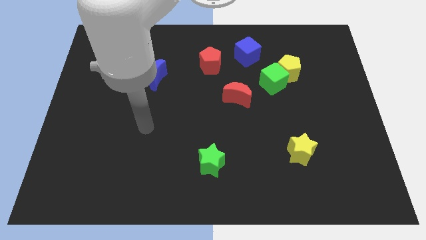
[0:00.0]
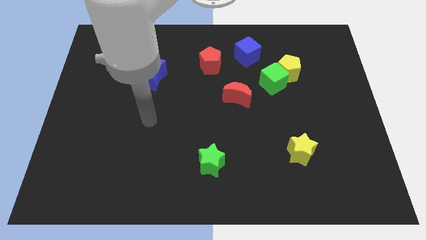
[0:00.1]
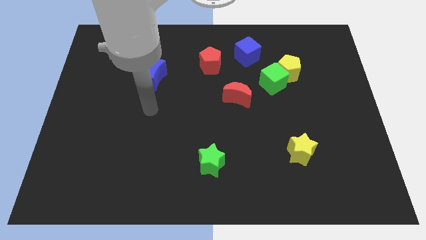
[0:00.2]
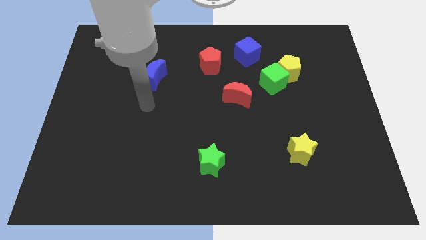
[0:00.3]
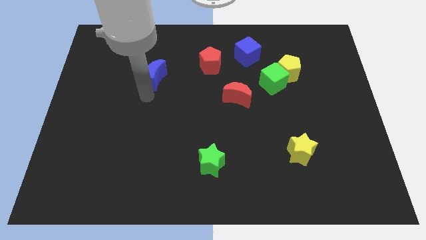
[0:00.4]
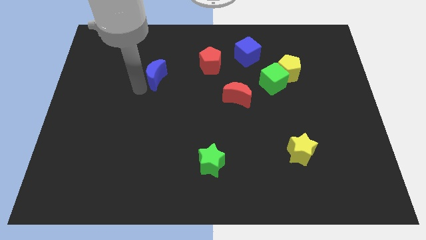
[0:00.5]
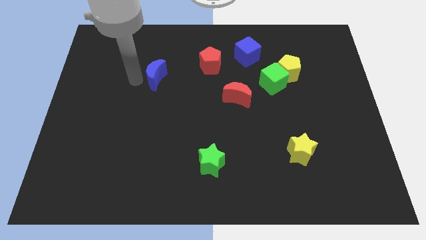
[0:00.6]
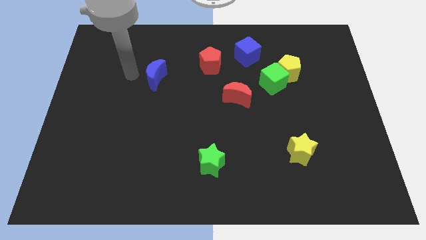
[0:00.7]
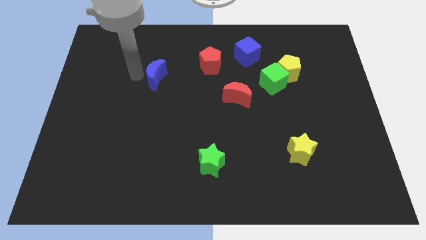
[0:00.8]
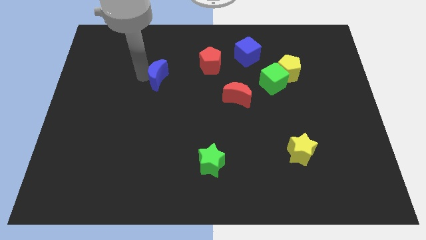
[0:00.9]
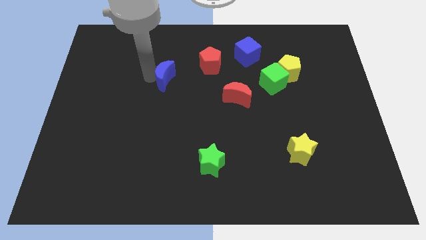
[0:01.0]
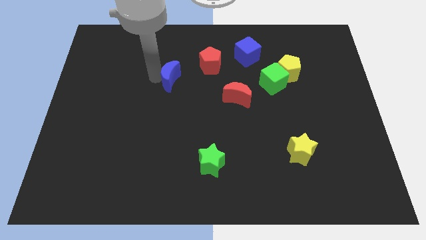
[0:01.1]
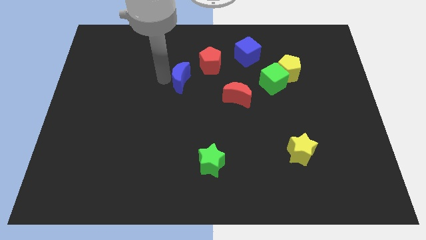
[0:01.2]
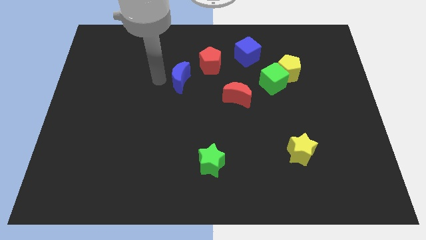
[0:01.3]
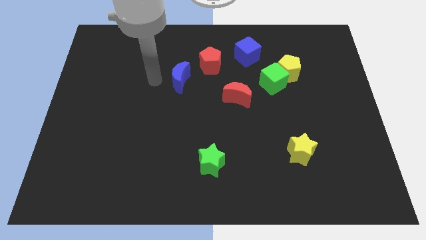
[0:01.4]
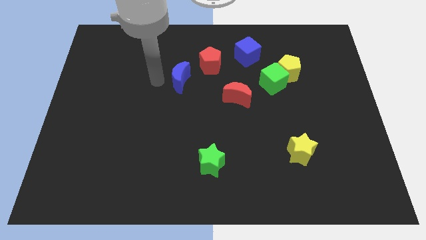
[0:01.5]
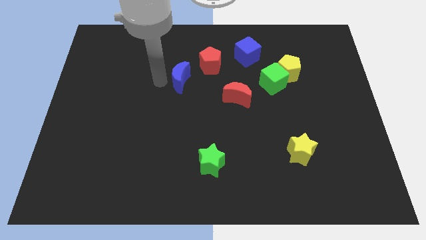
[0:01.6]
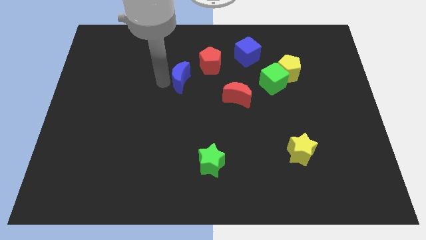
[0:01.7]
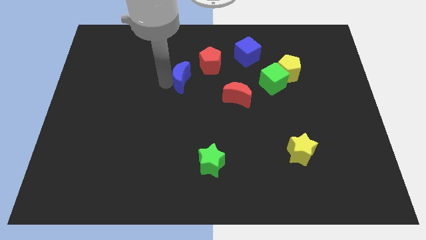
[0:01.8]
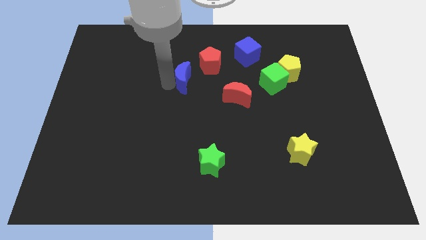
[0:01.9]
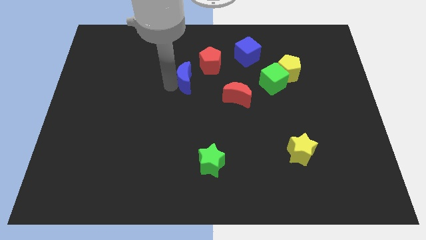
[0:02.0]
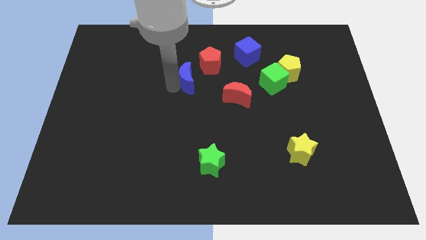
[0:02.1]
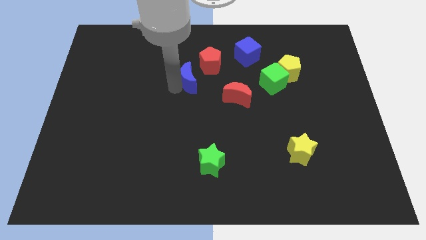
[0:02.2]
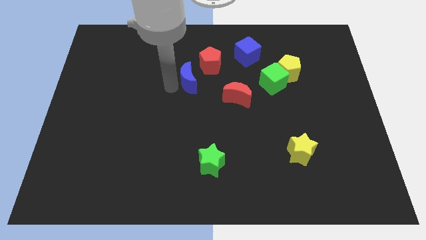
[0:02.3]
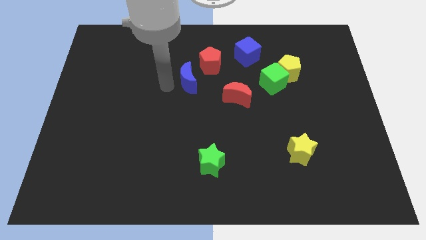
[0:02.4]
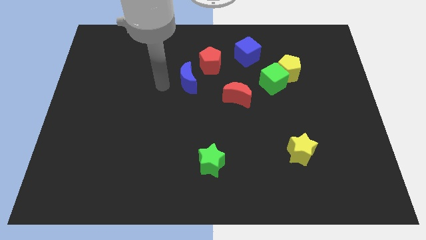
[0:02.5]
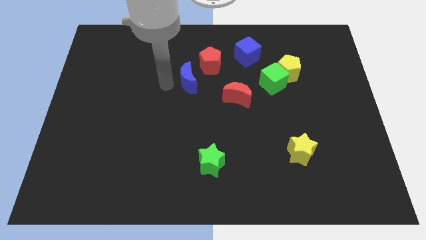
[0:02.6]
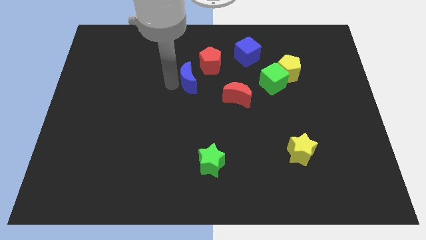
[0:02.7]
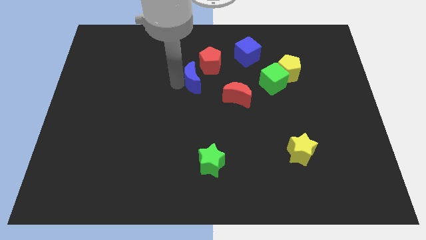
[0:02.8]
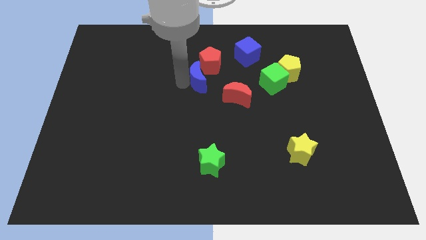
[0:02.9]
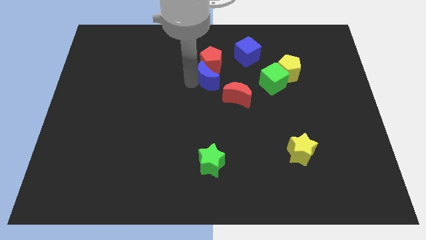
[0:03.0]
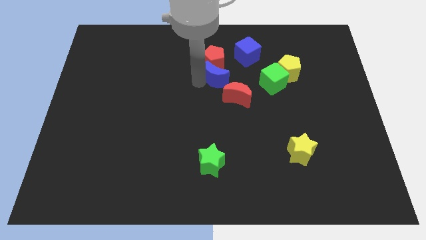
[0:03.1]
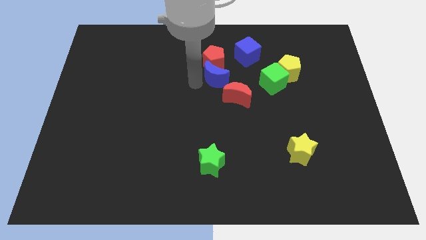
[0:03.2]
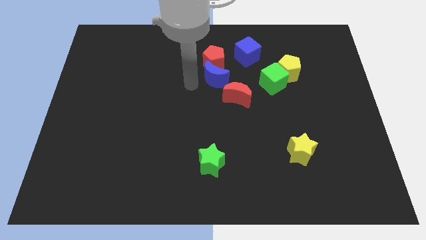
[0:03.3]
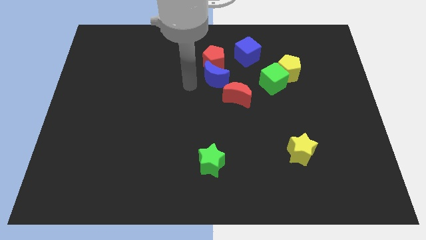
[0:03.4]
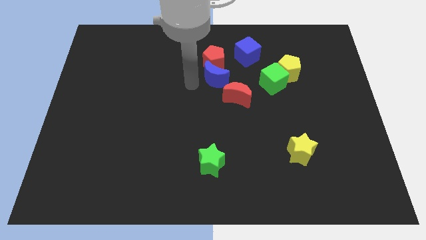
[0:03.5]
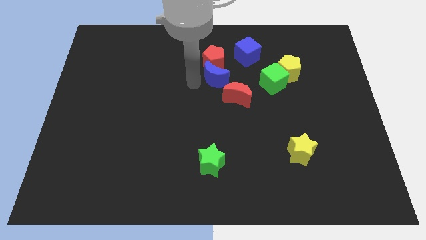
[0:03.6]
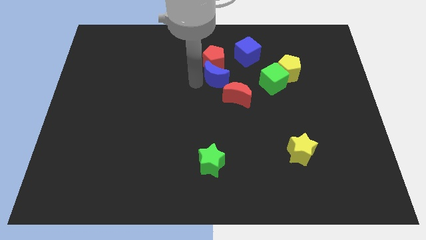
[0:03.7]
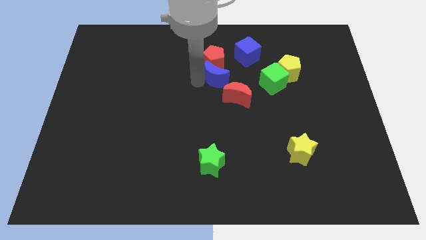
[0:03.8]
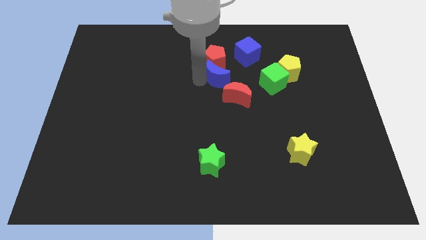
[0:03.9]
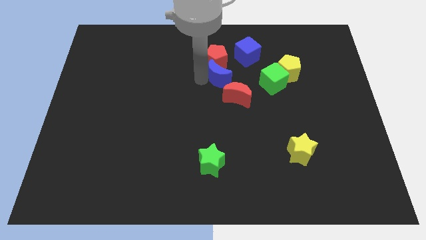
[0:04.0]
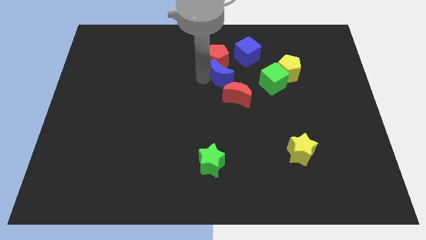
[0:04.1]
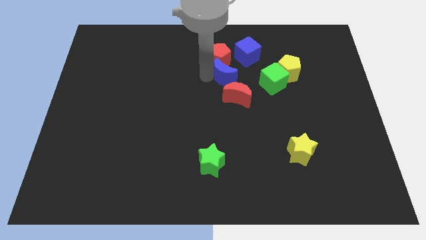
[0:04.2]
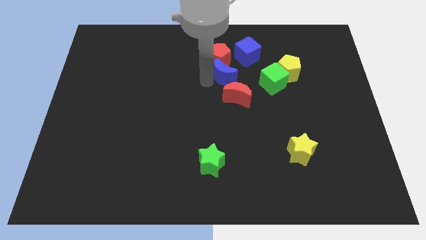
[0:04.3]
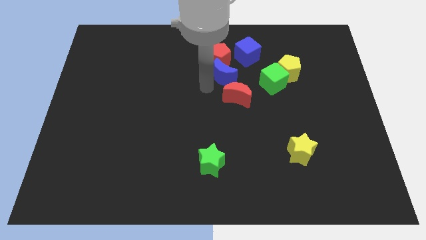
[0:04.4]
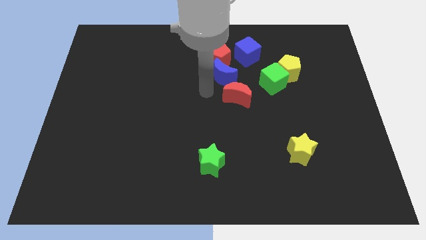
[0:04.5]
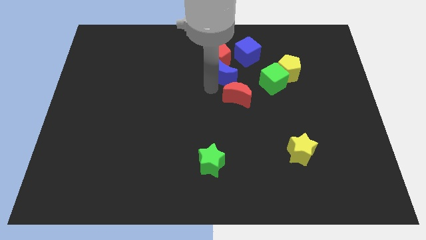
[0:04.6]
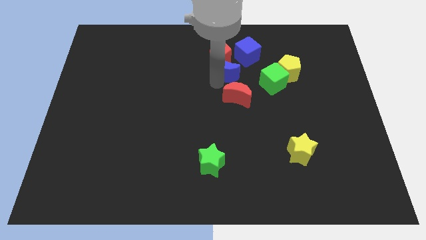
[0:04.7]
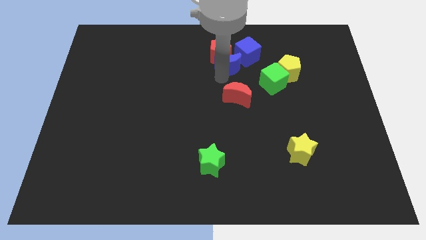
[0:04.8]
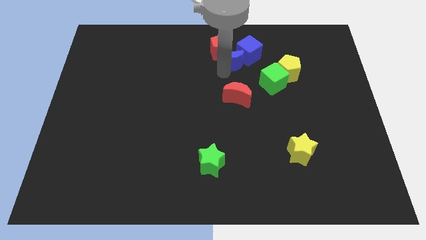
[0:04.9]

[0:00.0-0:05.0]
put the blue moon towards the blue cube

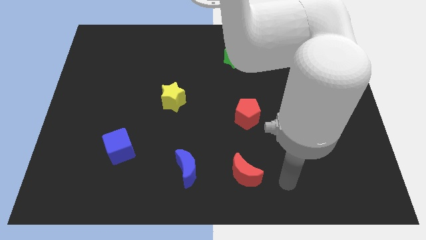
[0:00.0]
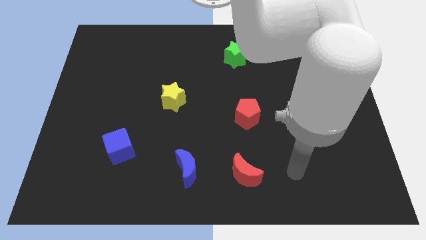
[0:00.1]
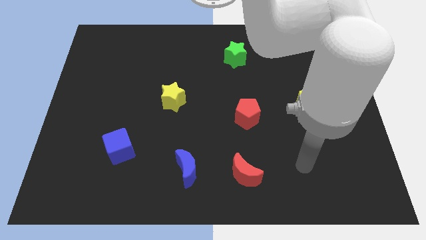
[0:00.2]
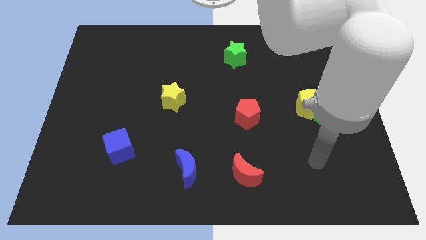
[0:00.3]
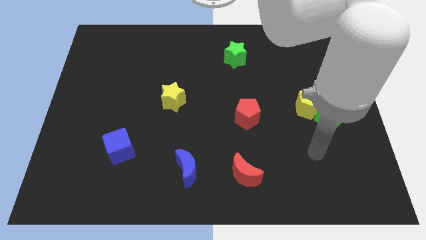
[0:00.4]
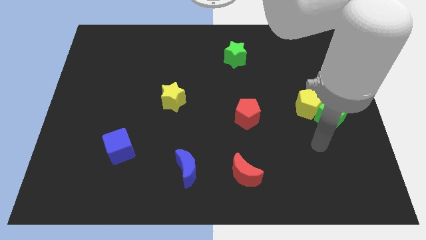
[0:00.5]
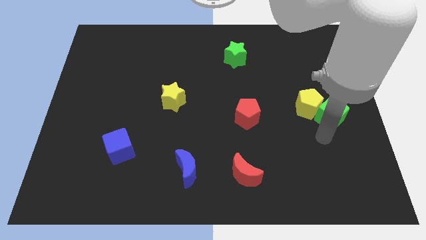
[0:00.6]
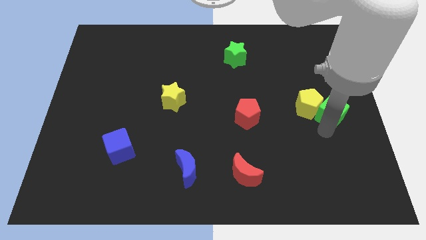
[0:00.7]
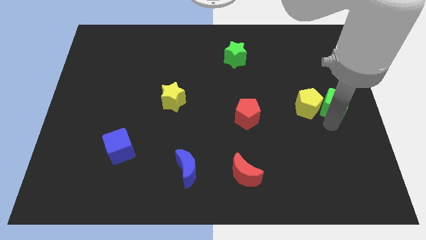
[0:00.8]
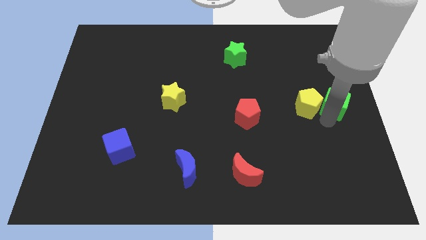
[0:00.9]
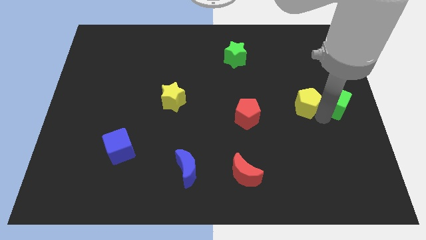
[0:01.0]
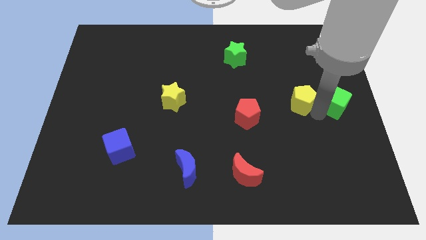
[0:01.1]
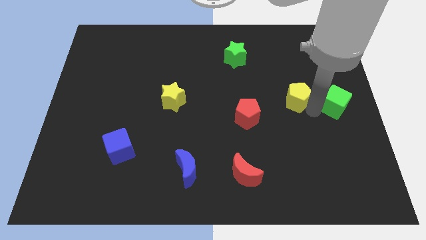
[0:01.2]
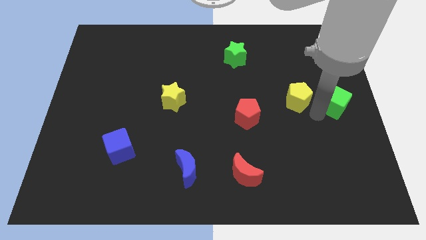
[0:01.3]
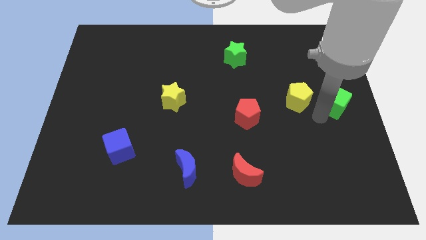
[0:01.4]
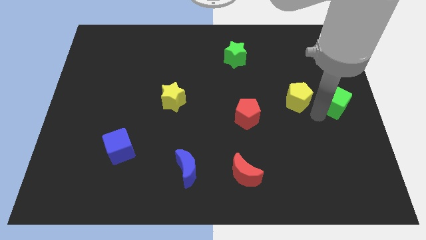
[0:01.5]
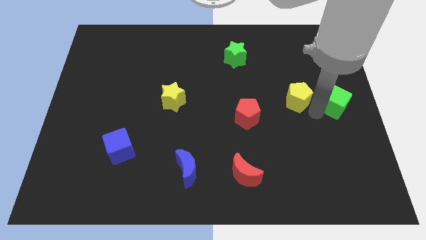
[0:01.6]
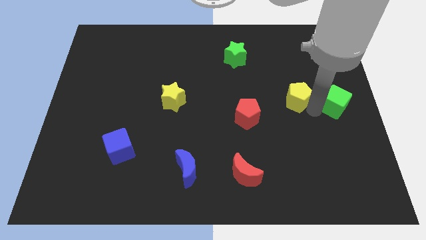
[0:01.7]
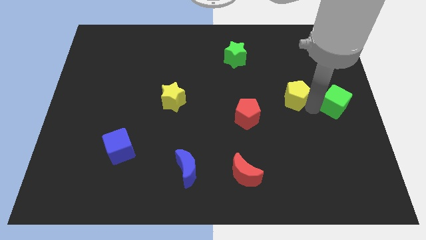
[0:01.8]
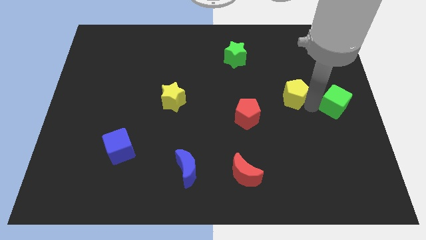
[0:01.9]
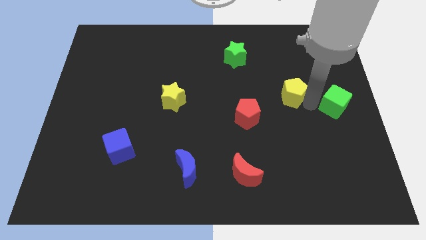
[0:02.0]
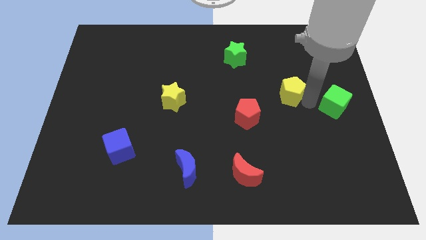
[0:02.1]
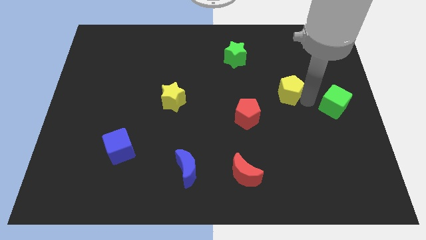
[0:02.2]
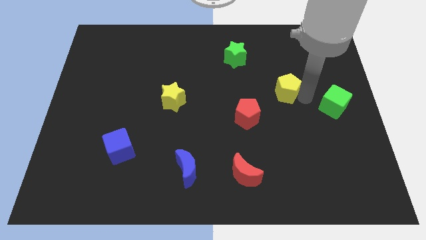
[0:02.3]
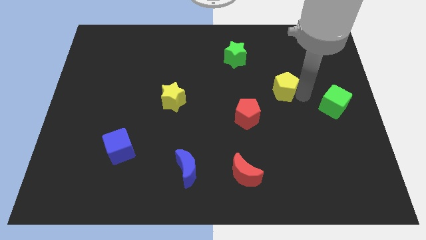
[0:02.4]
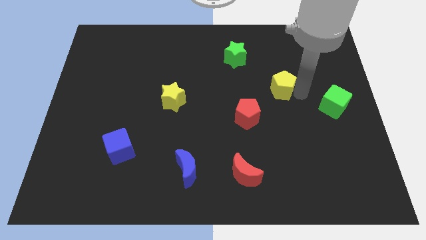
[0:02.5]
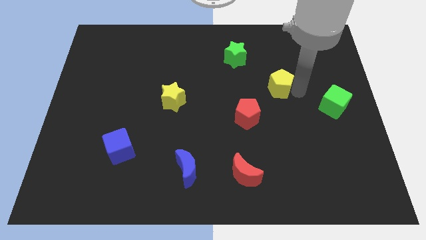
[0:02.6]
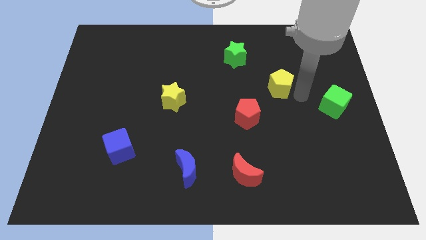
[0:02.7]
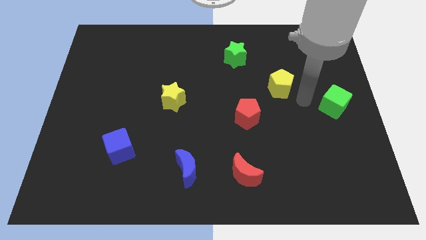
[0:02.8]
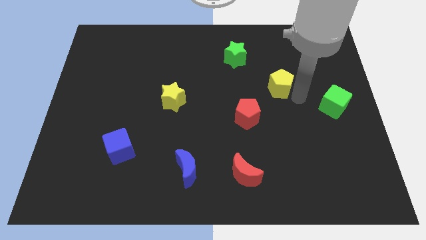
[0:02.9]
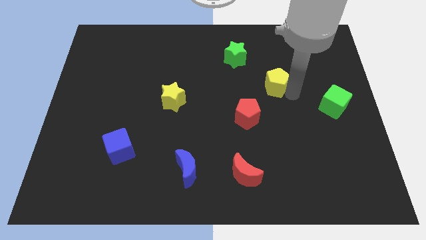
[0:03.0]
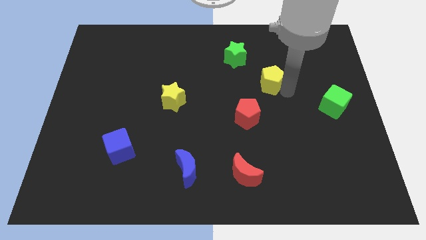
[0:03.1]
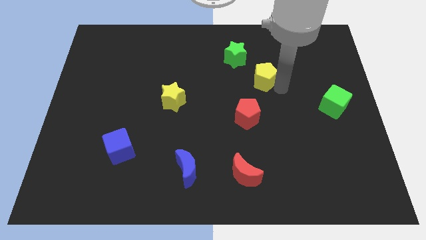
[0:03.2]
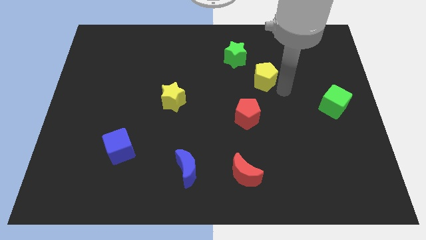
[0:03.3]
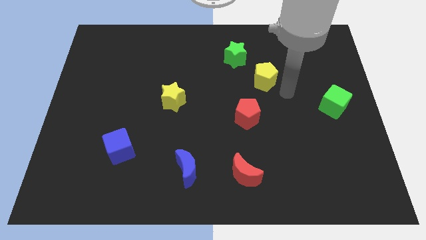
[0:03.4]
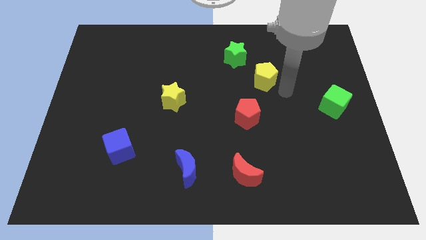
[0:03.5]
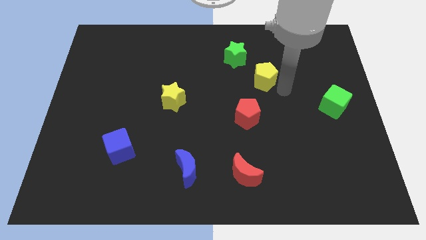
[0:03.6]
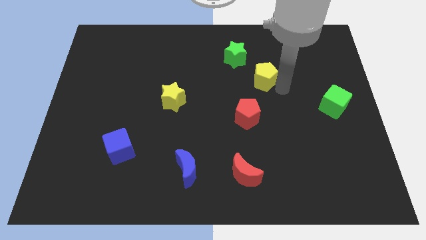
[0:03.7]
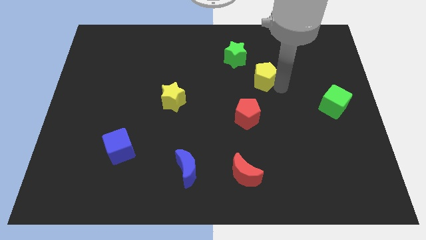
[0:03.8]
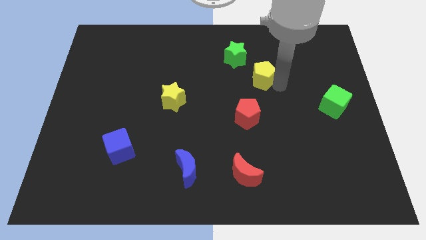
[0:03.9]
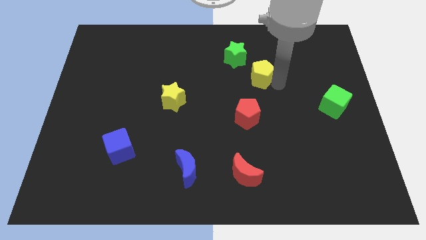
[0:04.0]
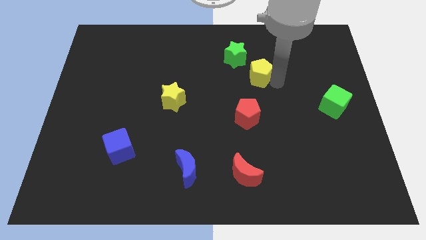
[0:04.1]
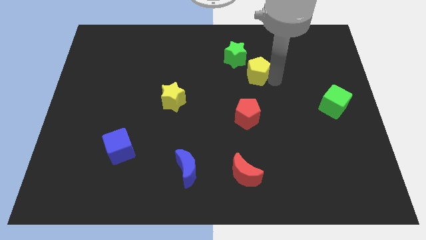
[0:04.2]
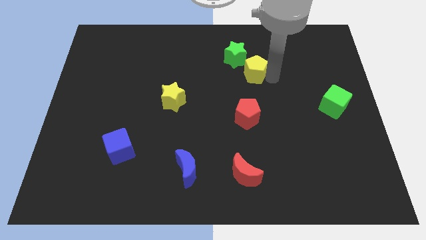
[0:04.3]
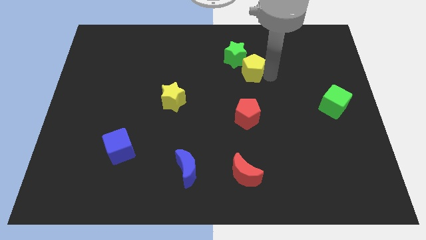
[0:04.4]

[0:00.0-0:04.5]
move the yellow pentagon next to the green star
